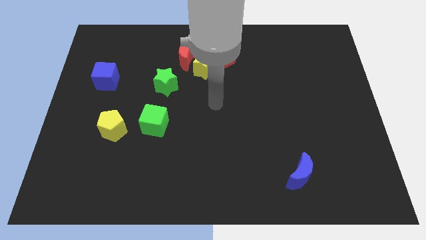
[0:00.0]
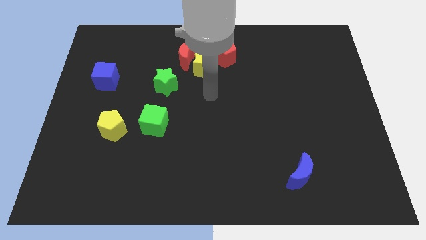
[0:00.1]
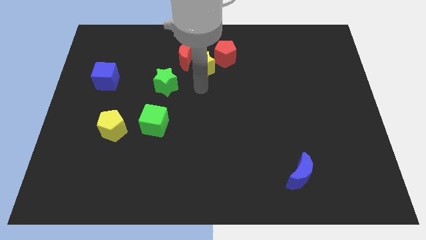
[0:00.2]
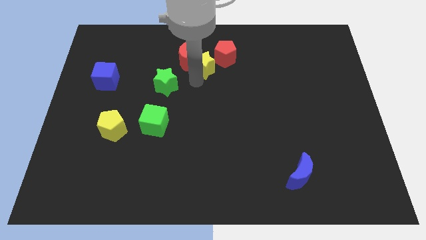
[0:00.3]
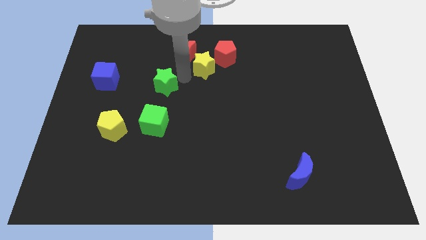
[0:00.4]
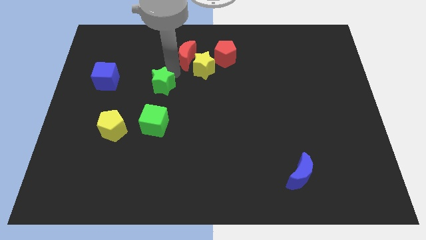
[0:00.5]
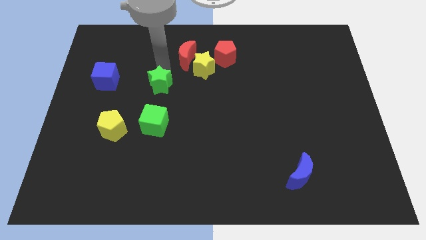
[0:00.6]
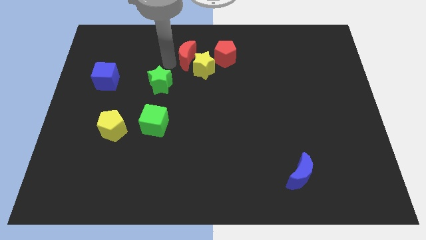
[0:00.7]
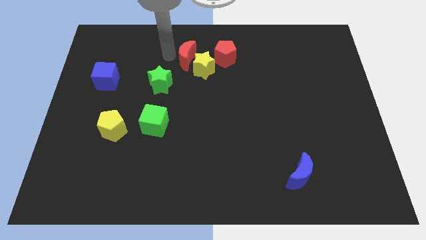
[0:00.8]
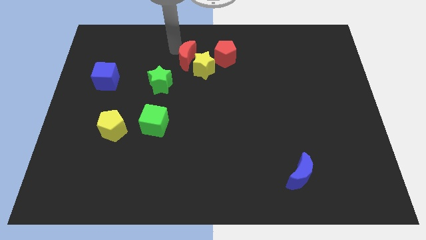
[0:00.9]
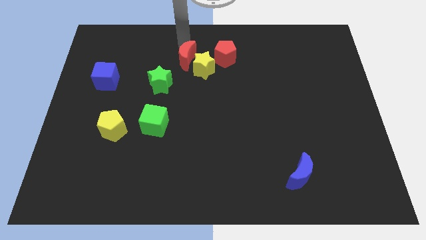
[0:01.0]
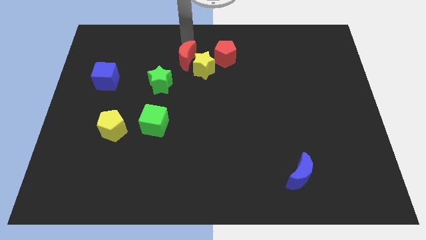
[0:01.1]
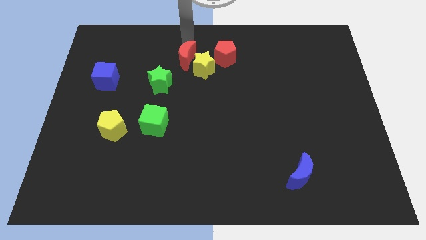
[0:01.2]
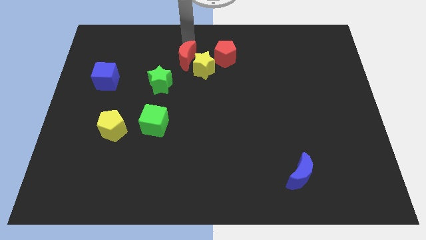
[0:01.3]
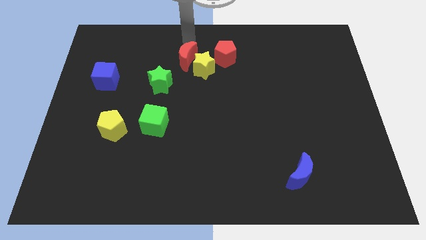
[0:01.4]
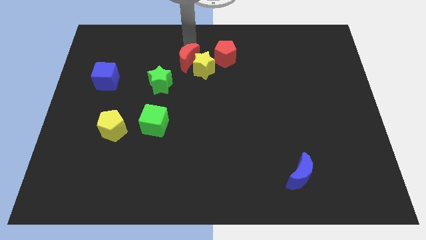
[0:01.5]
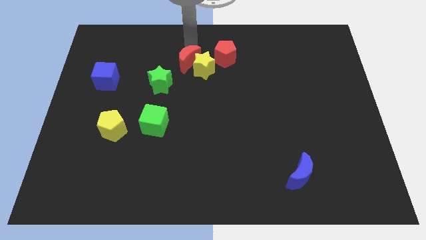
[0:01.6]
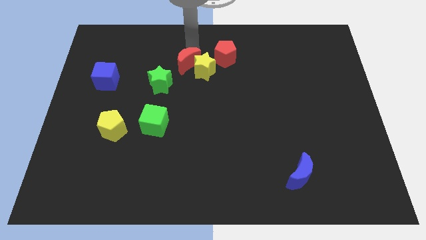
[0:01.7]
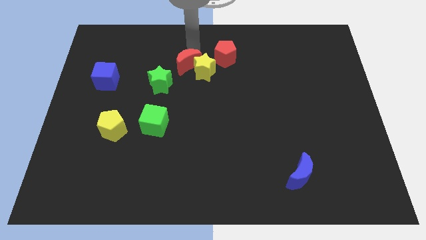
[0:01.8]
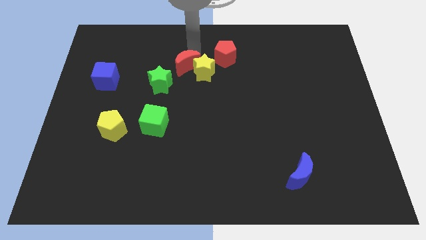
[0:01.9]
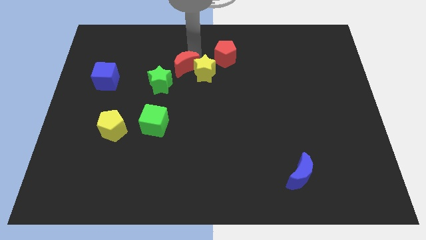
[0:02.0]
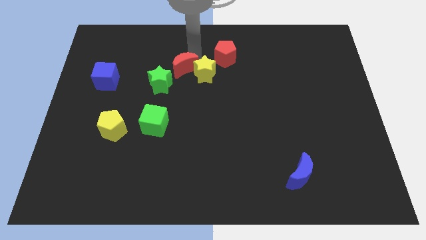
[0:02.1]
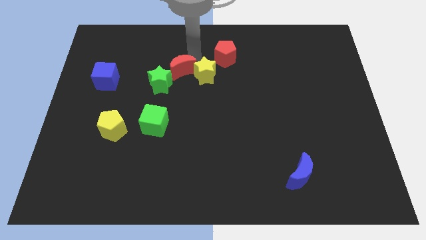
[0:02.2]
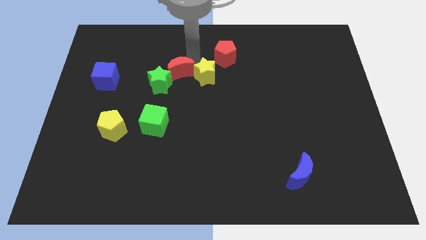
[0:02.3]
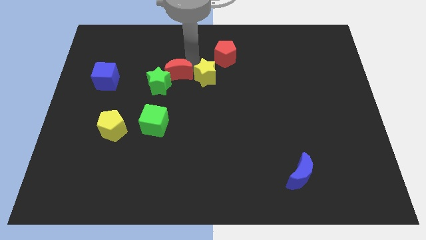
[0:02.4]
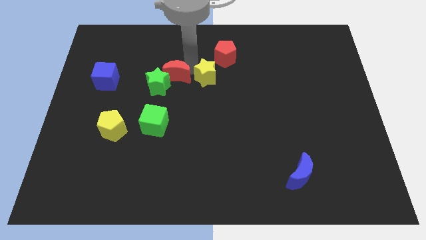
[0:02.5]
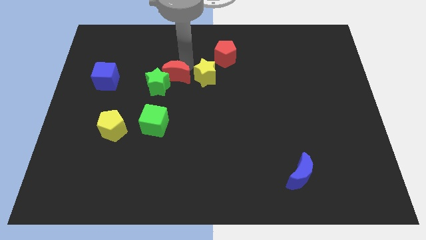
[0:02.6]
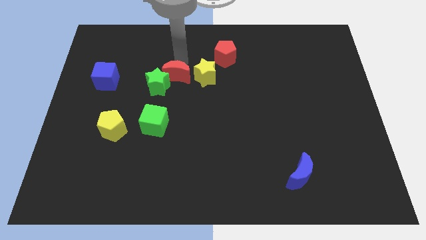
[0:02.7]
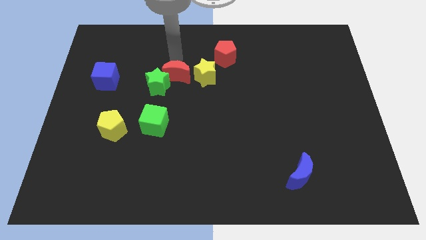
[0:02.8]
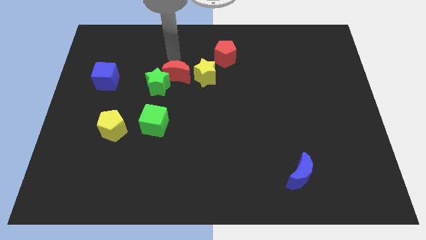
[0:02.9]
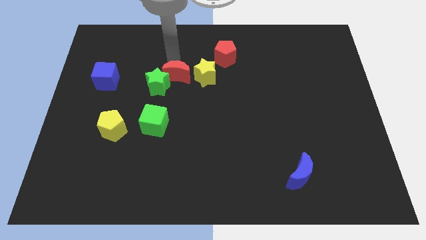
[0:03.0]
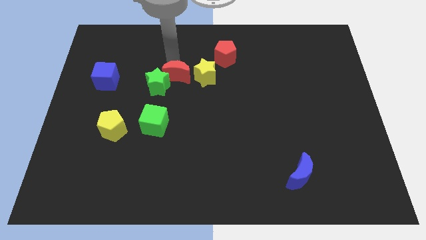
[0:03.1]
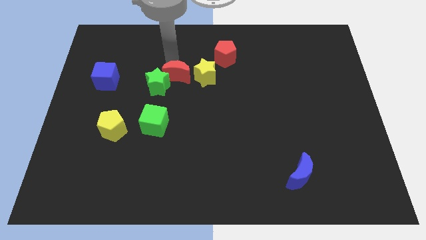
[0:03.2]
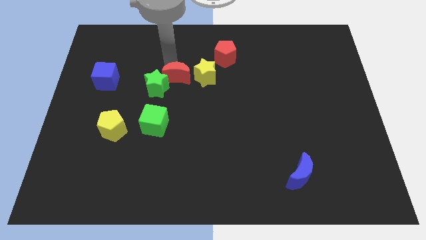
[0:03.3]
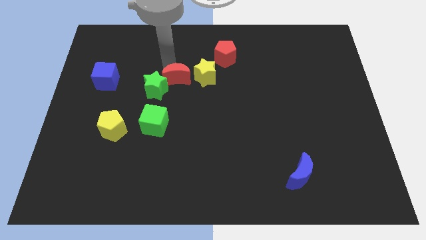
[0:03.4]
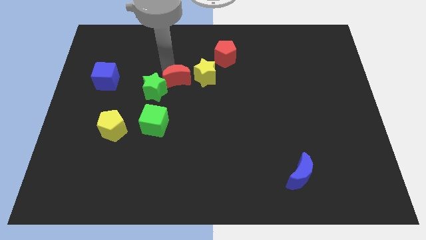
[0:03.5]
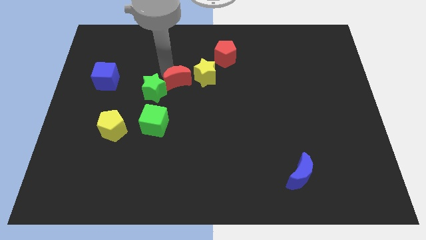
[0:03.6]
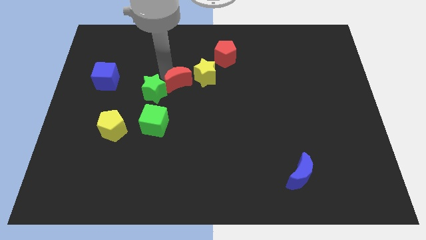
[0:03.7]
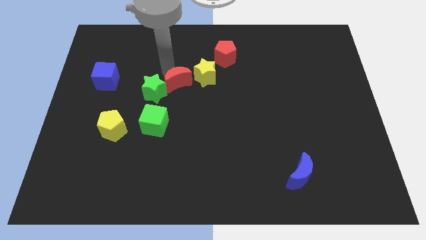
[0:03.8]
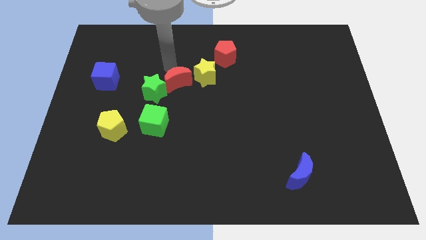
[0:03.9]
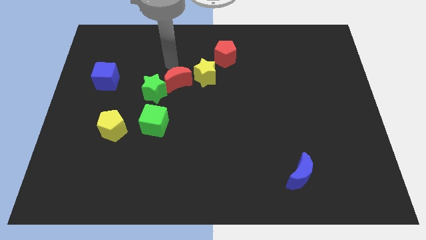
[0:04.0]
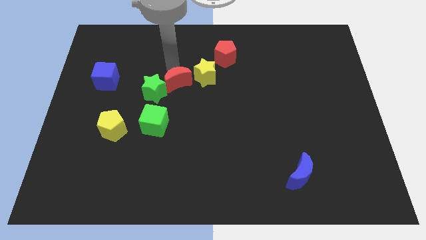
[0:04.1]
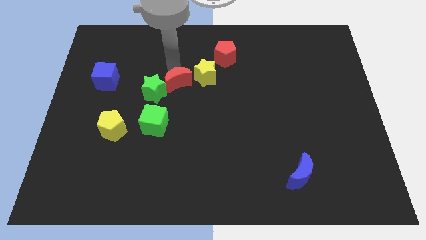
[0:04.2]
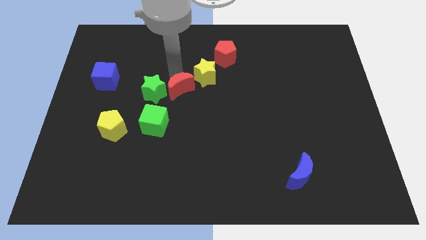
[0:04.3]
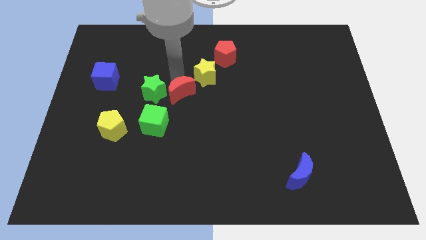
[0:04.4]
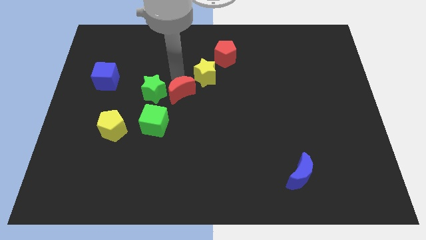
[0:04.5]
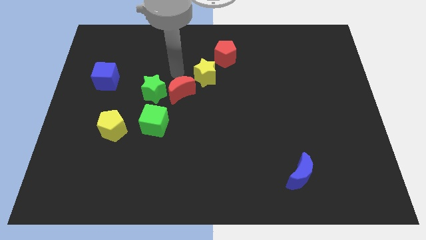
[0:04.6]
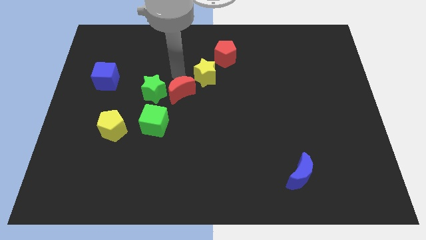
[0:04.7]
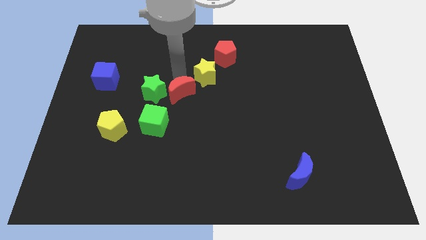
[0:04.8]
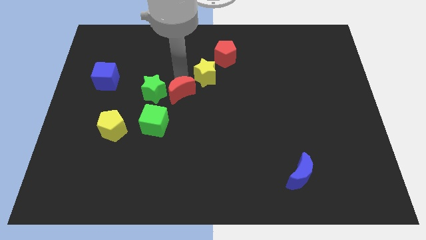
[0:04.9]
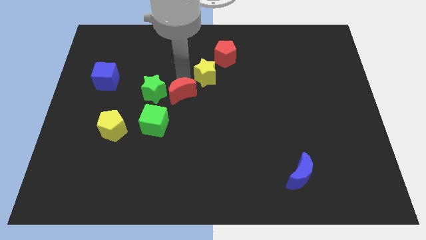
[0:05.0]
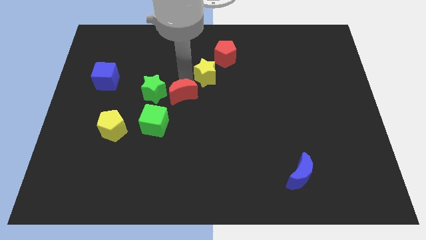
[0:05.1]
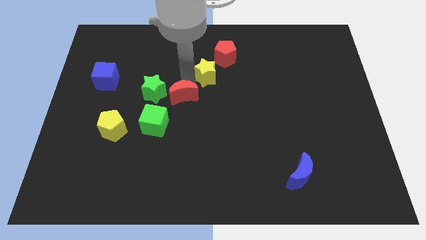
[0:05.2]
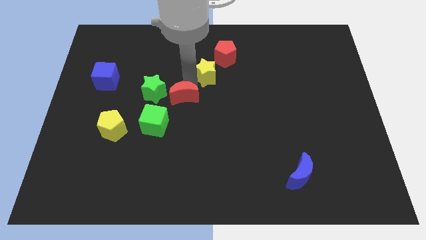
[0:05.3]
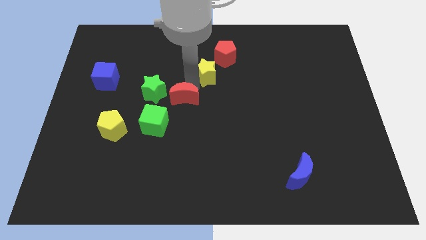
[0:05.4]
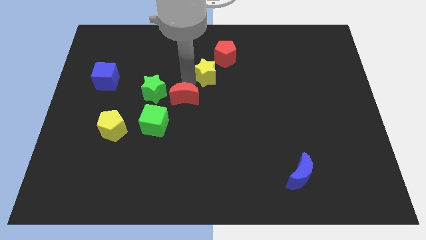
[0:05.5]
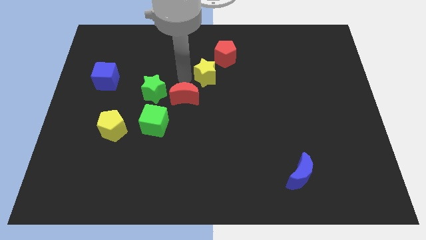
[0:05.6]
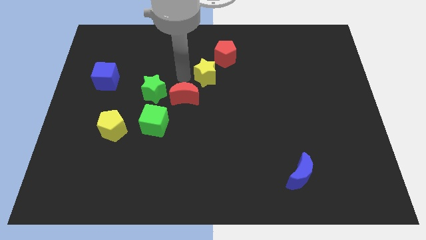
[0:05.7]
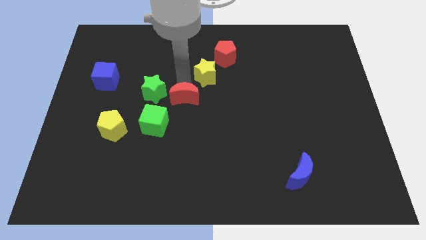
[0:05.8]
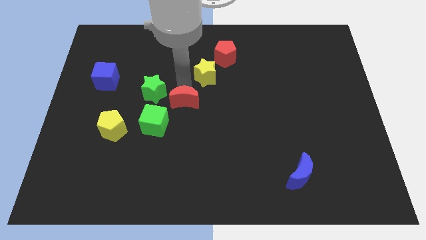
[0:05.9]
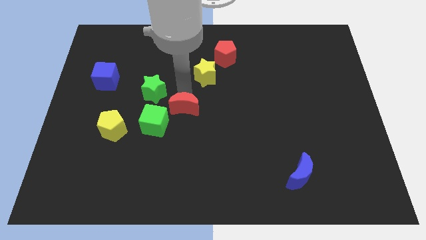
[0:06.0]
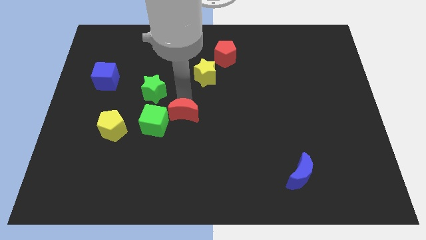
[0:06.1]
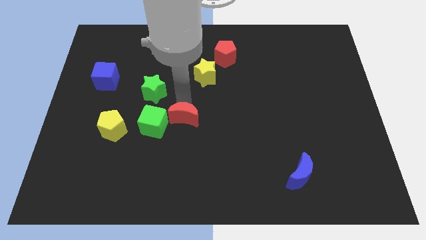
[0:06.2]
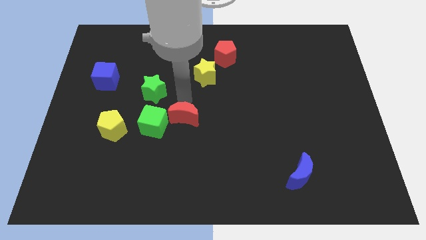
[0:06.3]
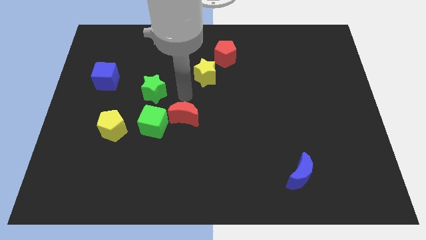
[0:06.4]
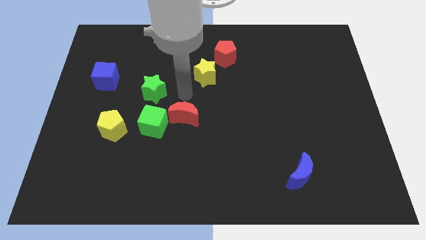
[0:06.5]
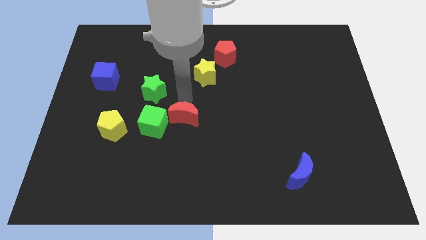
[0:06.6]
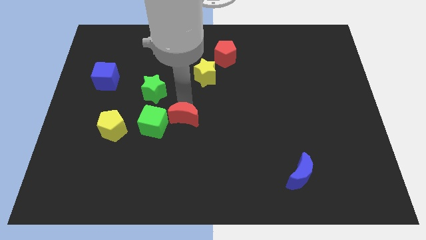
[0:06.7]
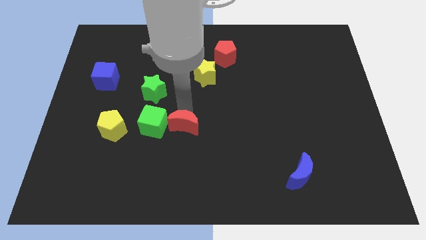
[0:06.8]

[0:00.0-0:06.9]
move the red moon downwards

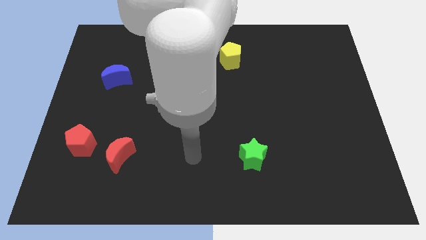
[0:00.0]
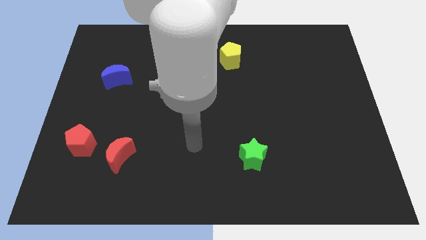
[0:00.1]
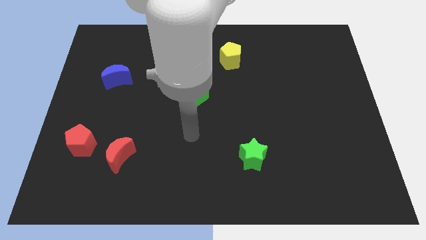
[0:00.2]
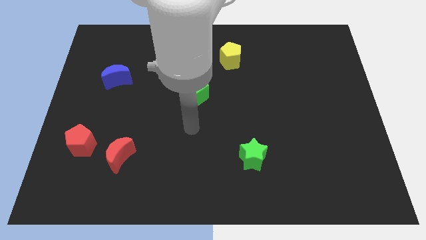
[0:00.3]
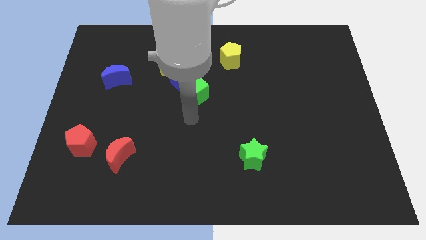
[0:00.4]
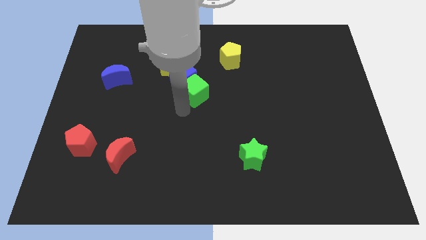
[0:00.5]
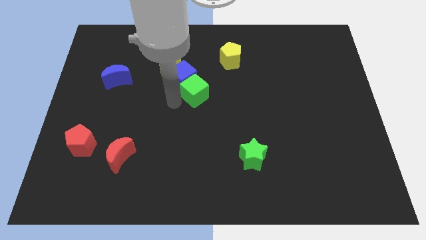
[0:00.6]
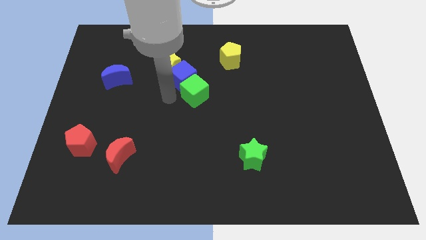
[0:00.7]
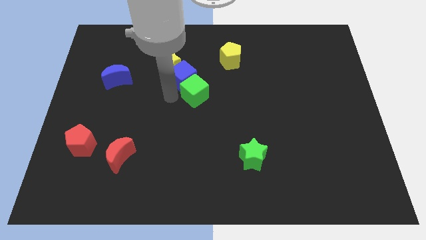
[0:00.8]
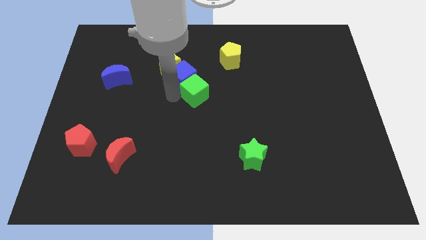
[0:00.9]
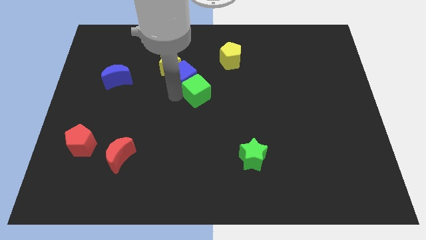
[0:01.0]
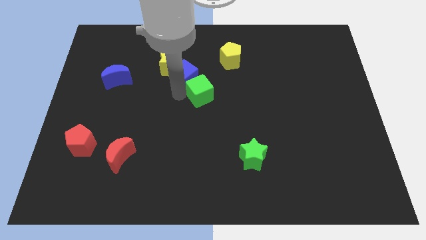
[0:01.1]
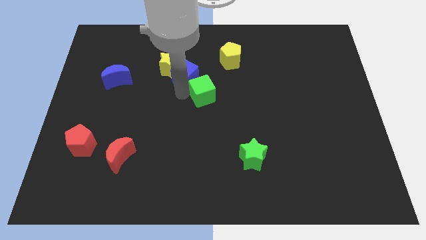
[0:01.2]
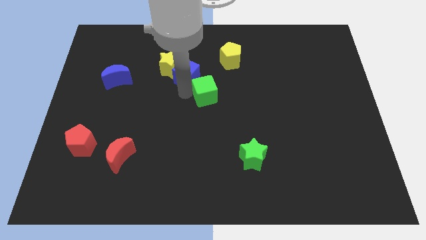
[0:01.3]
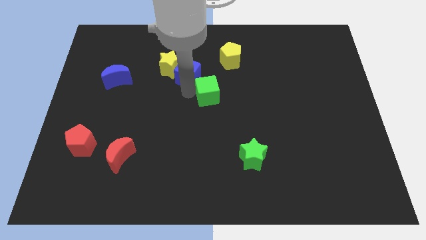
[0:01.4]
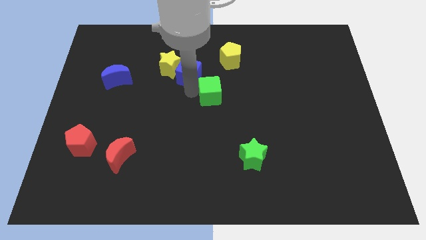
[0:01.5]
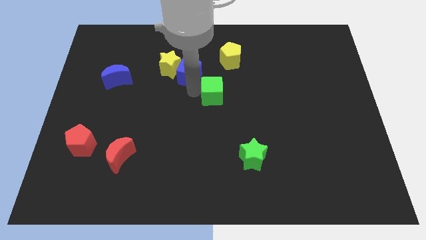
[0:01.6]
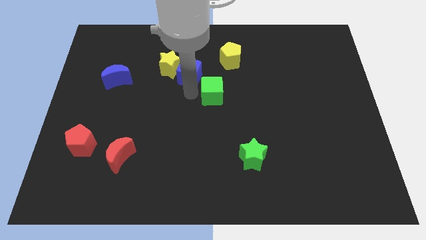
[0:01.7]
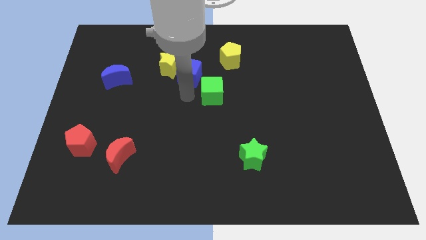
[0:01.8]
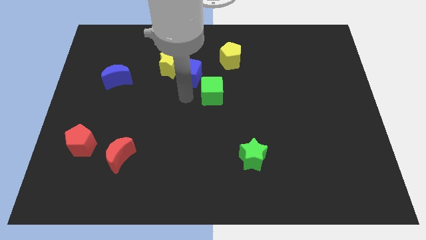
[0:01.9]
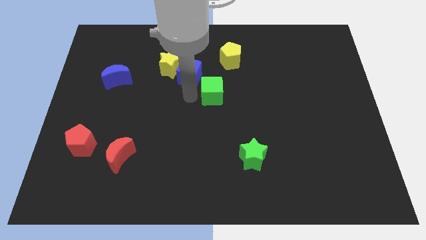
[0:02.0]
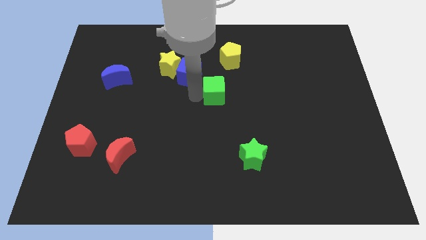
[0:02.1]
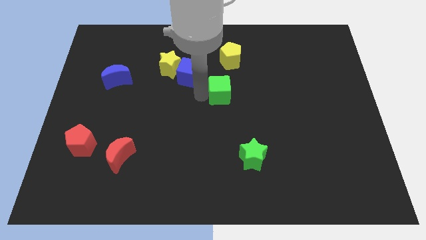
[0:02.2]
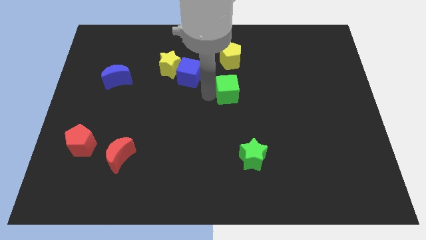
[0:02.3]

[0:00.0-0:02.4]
push the green cube somewhat right
